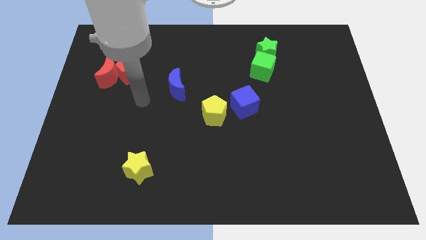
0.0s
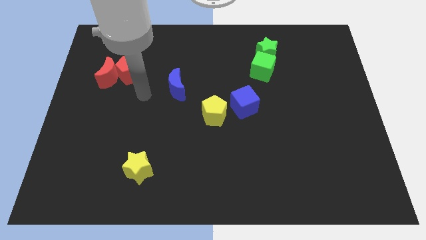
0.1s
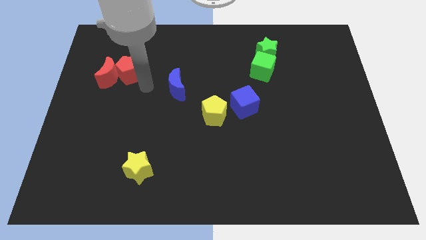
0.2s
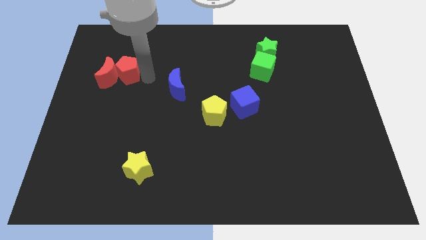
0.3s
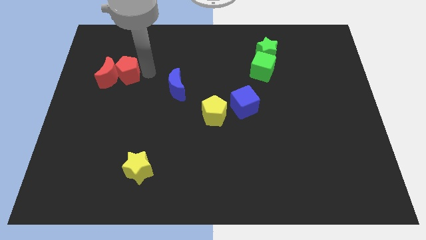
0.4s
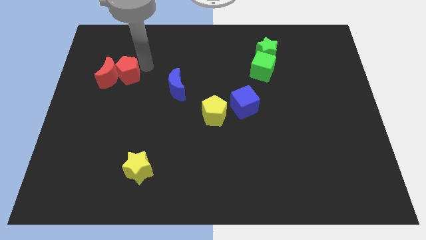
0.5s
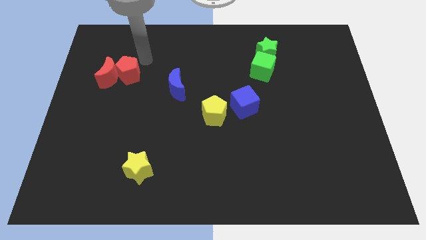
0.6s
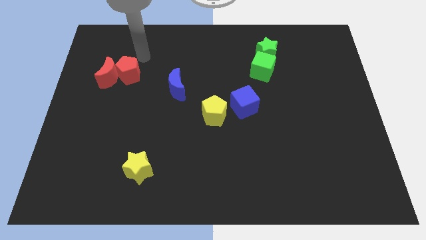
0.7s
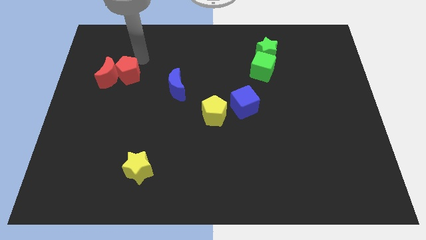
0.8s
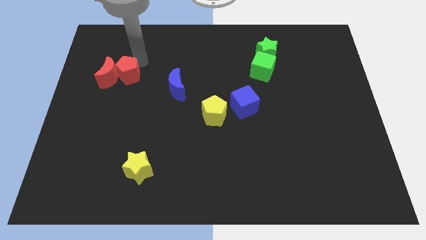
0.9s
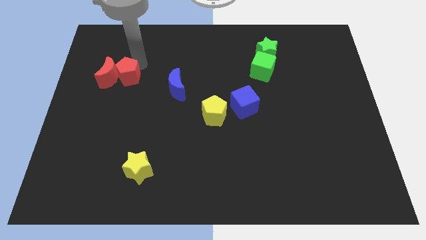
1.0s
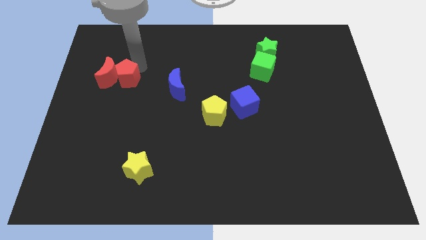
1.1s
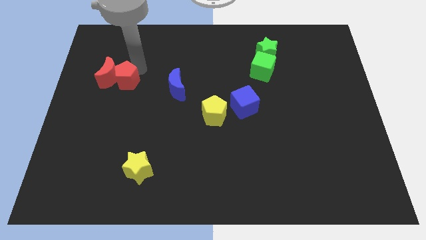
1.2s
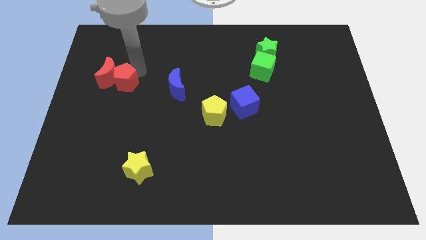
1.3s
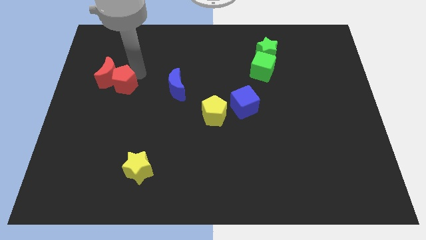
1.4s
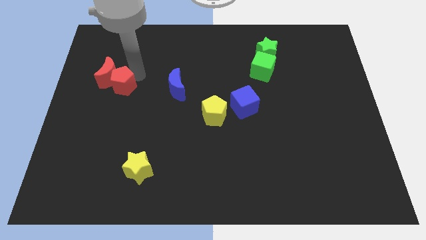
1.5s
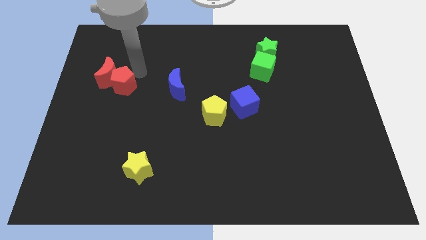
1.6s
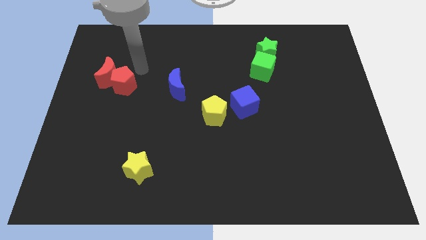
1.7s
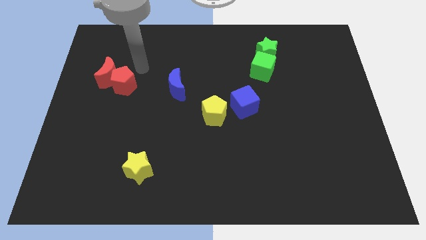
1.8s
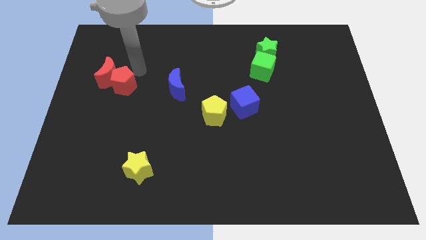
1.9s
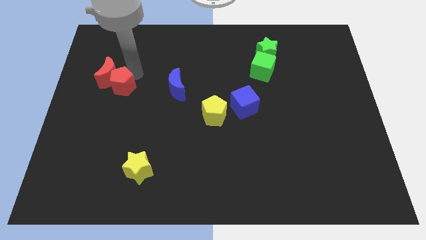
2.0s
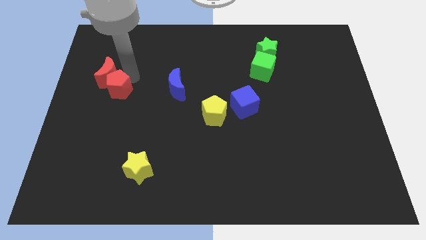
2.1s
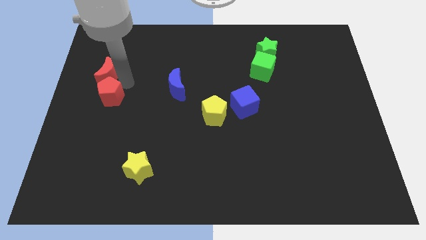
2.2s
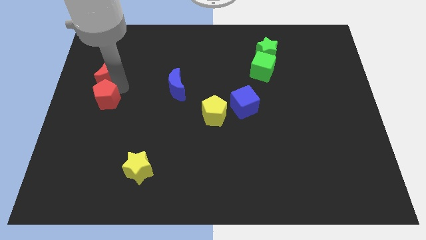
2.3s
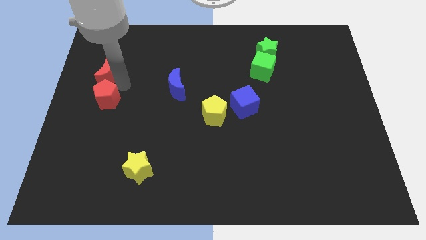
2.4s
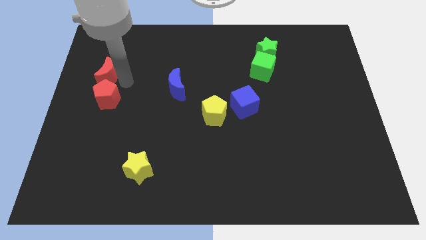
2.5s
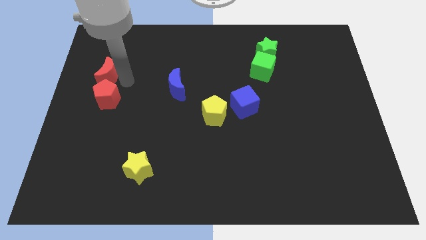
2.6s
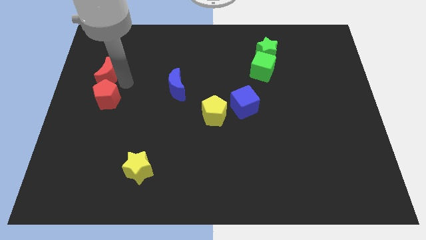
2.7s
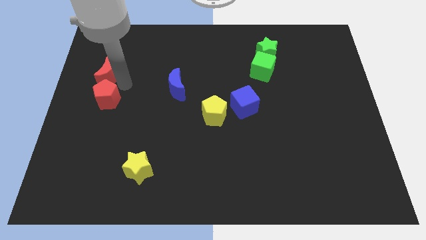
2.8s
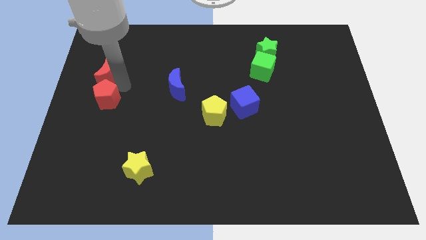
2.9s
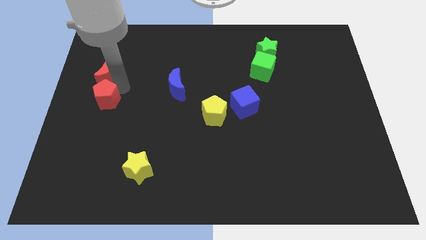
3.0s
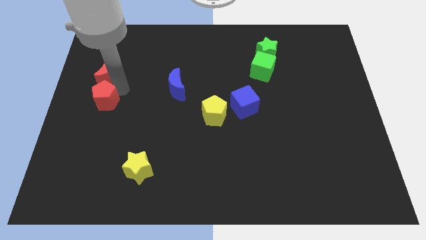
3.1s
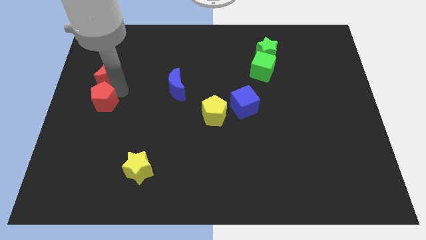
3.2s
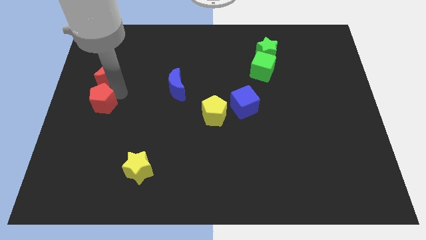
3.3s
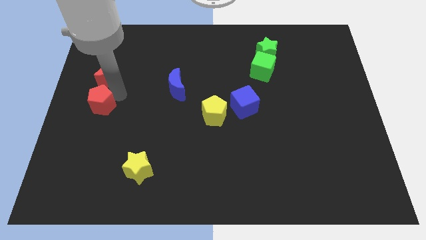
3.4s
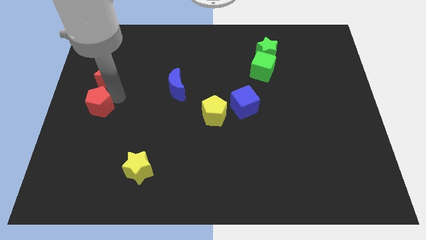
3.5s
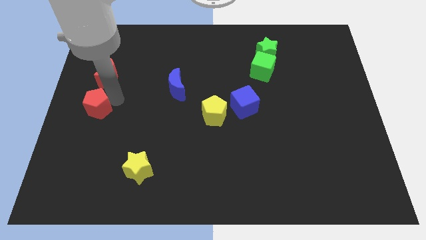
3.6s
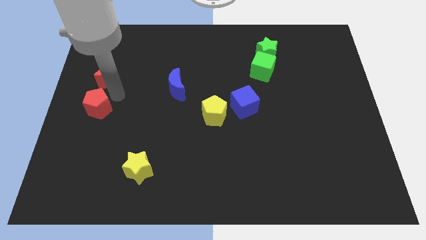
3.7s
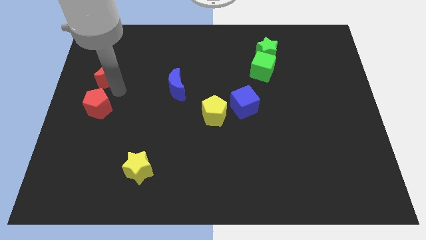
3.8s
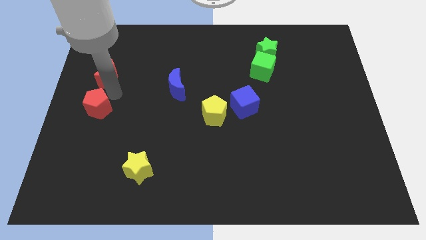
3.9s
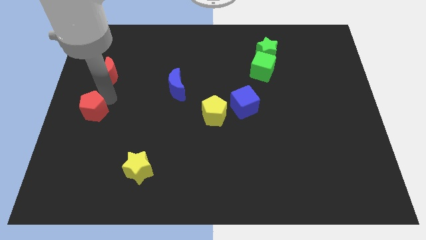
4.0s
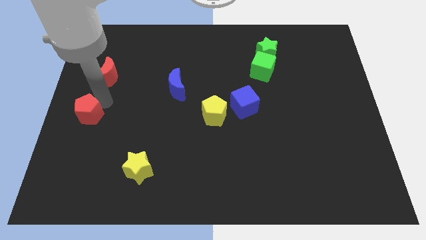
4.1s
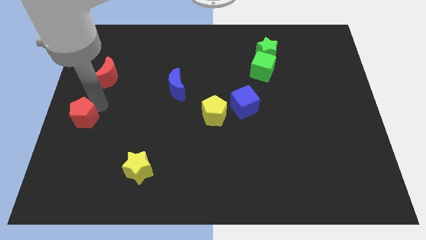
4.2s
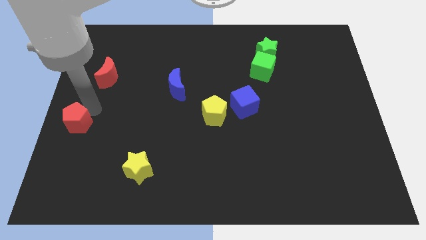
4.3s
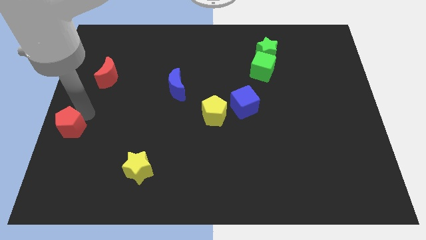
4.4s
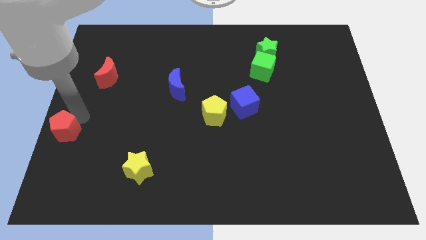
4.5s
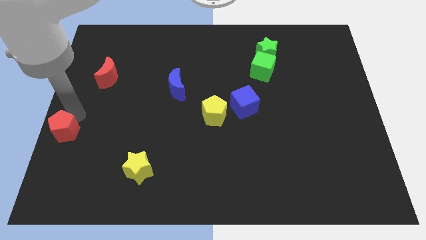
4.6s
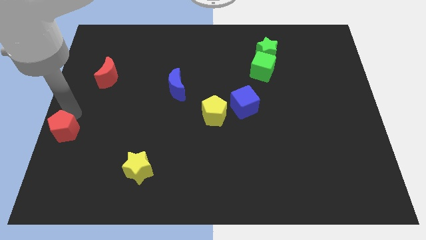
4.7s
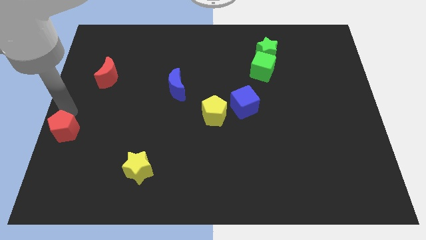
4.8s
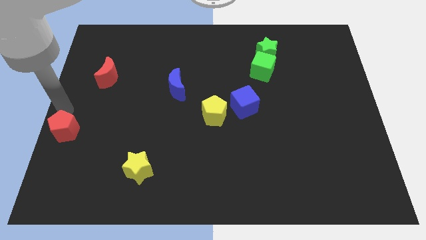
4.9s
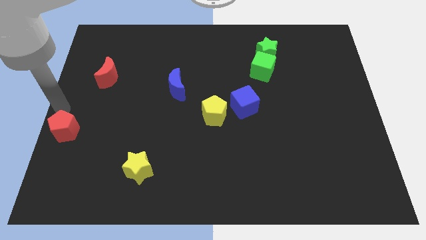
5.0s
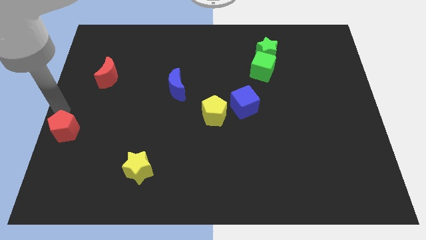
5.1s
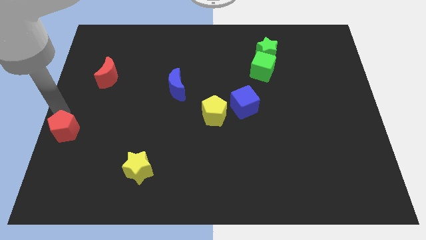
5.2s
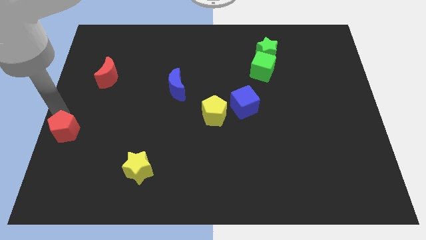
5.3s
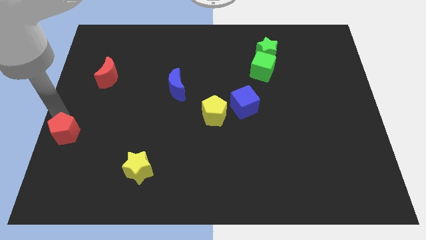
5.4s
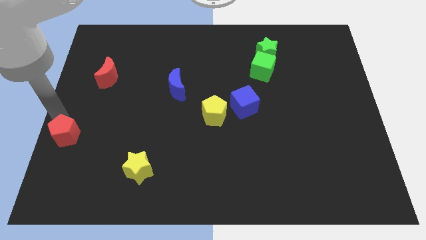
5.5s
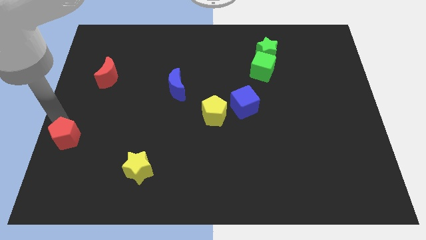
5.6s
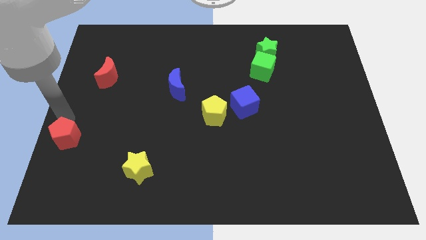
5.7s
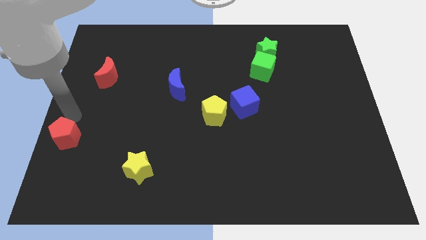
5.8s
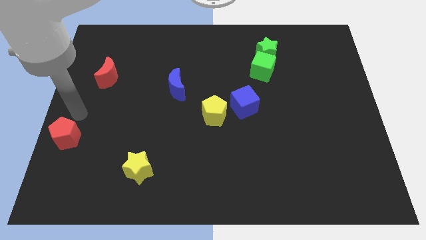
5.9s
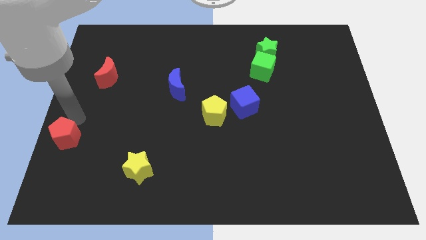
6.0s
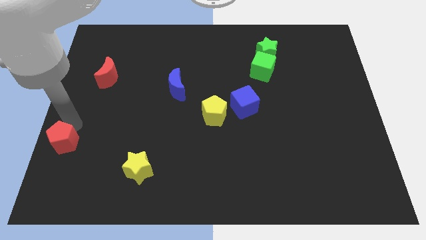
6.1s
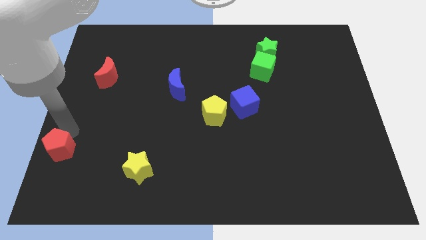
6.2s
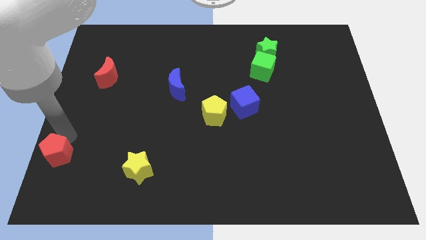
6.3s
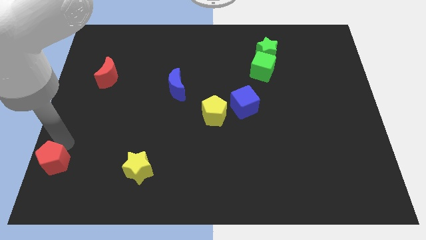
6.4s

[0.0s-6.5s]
slide the red pentagon to the lower left corner

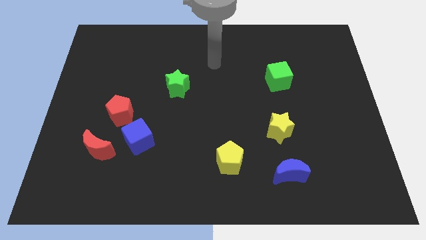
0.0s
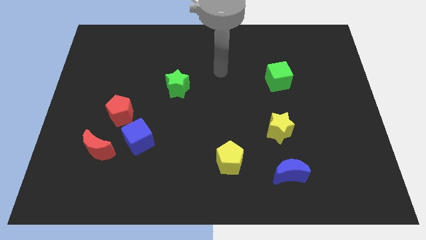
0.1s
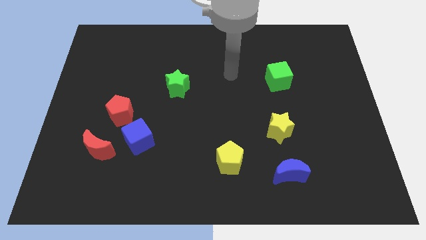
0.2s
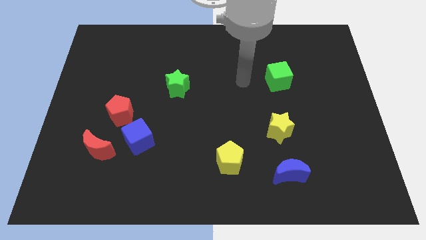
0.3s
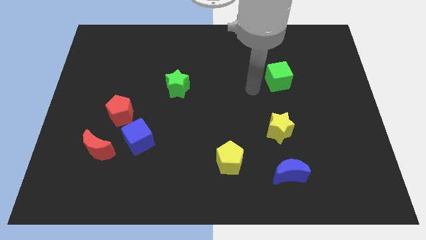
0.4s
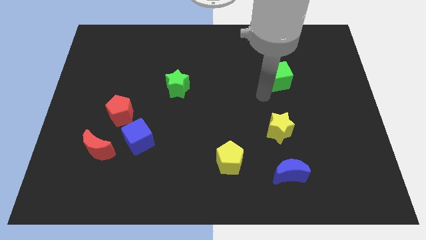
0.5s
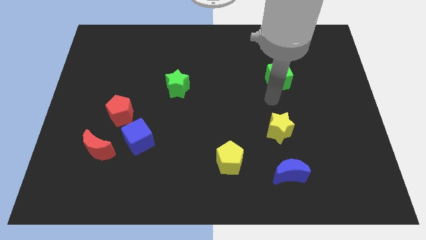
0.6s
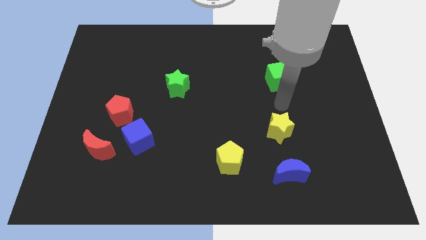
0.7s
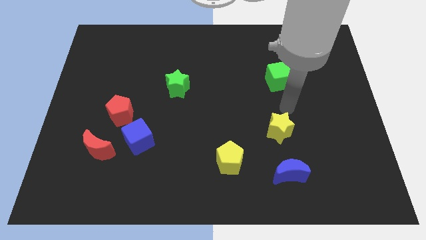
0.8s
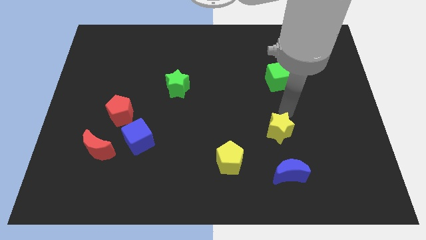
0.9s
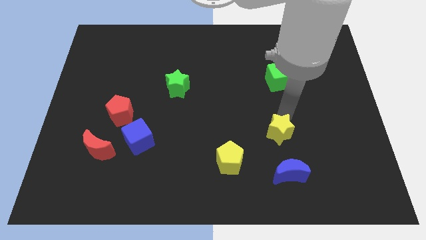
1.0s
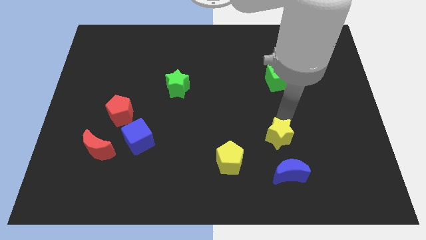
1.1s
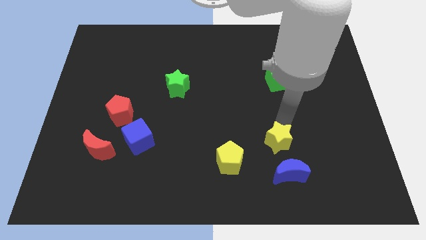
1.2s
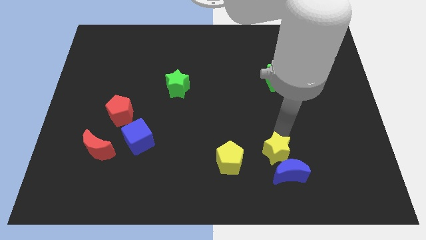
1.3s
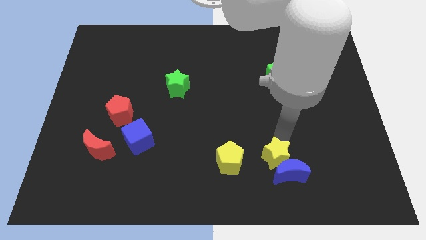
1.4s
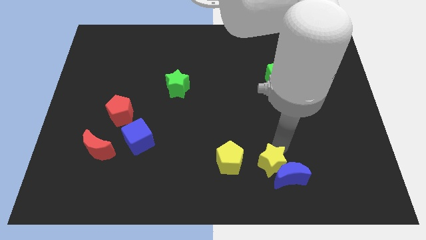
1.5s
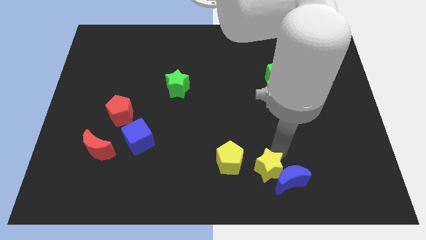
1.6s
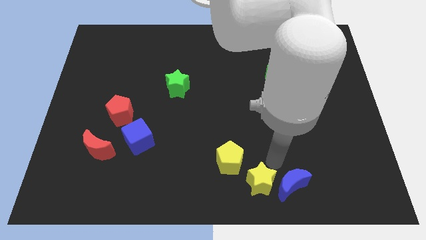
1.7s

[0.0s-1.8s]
put the yellow star to the bottom
